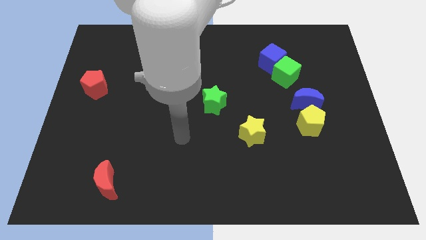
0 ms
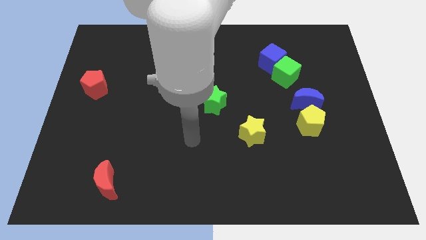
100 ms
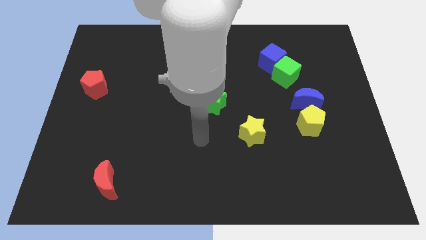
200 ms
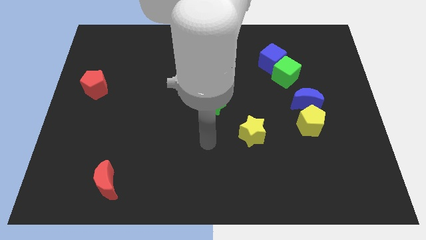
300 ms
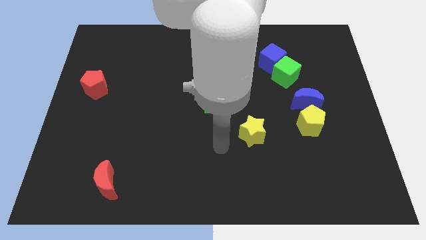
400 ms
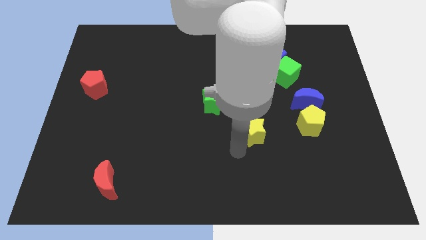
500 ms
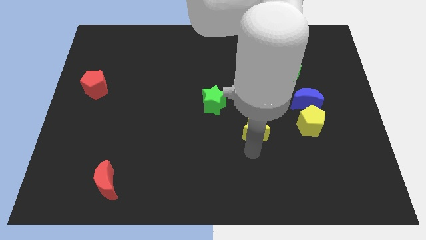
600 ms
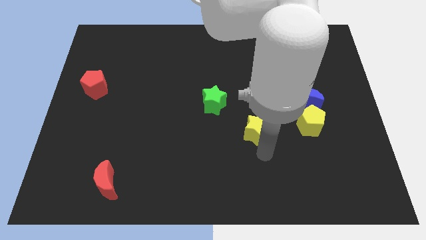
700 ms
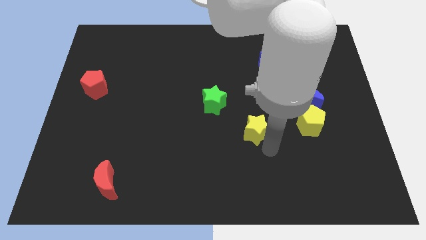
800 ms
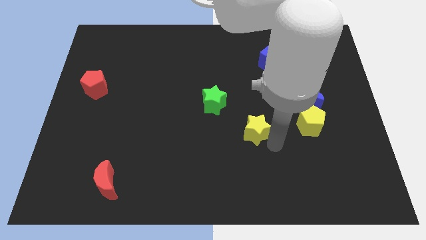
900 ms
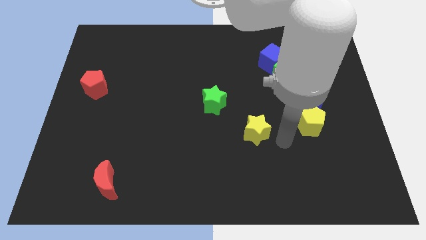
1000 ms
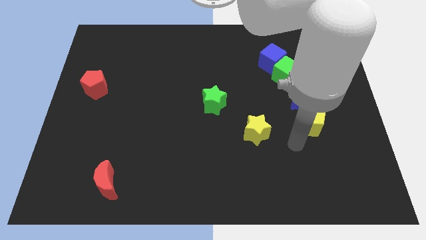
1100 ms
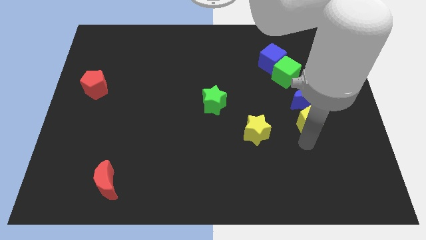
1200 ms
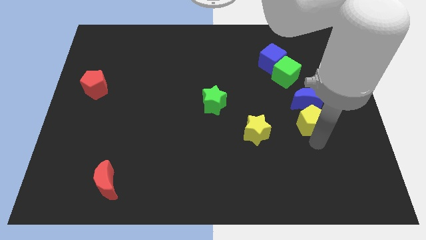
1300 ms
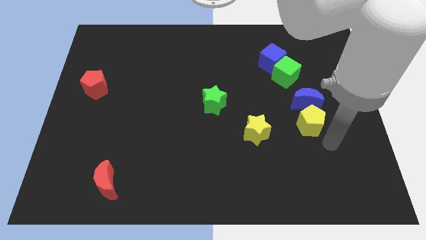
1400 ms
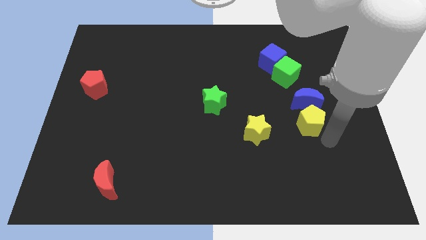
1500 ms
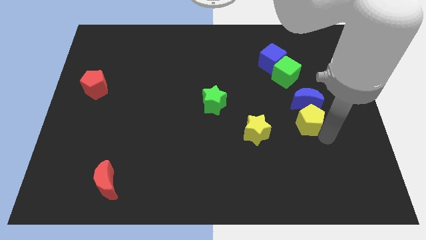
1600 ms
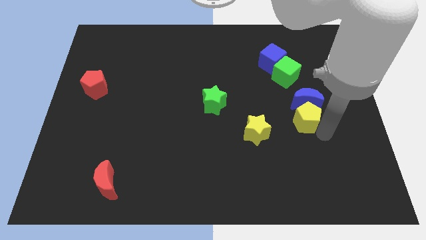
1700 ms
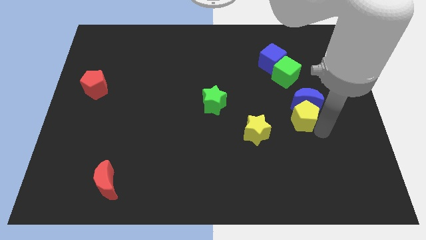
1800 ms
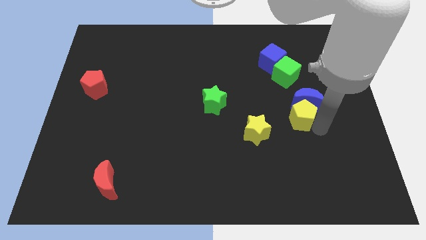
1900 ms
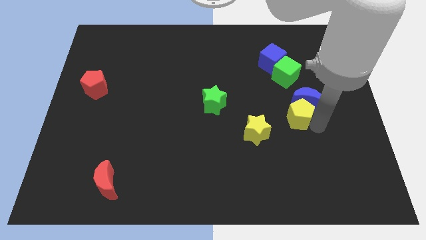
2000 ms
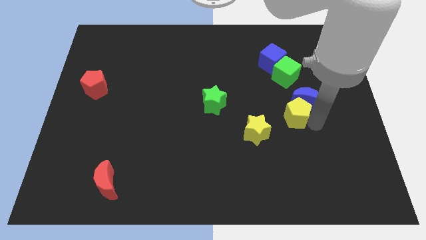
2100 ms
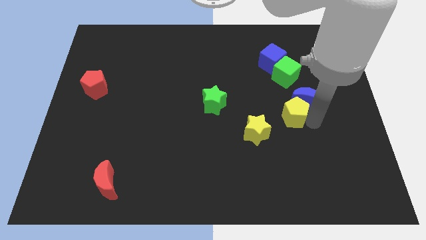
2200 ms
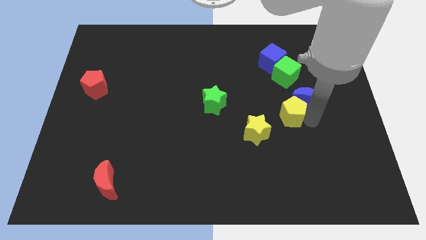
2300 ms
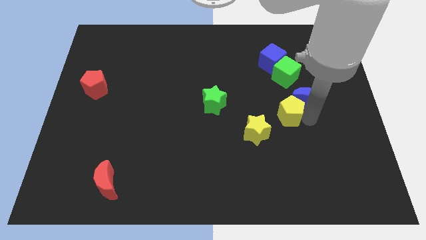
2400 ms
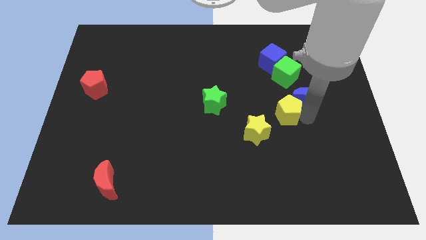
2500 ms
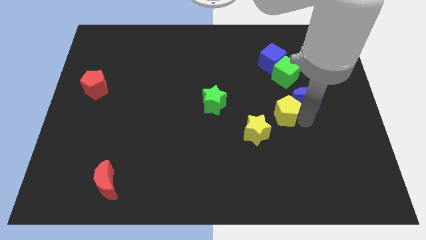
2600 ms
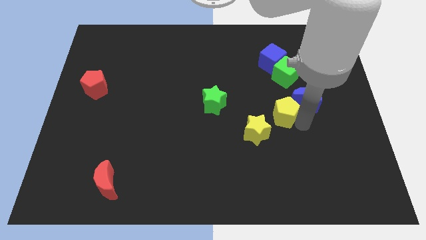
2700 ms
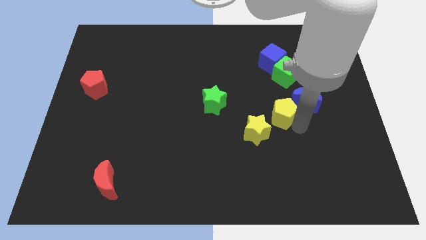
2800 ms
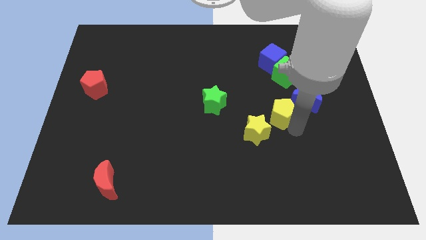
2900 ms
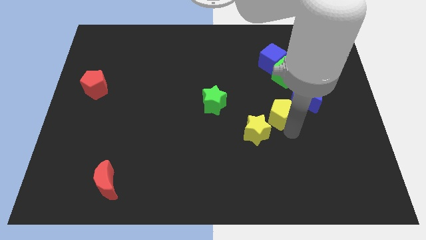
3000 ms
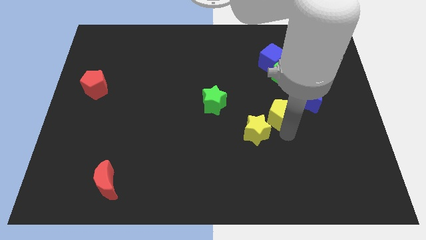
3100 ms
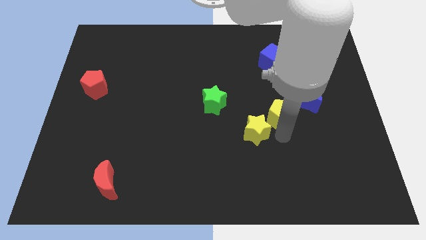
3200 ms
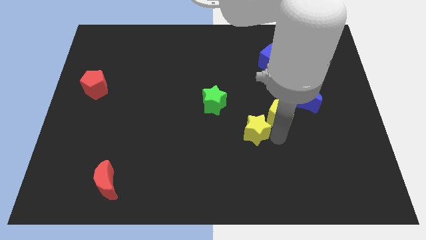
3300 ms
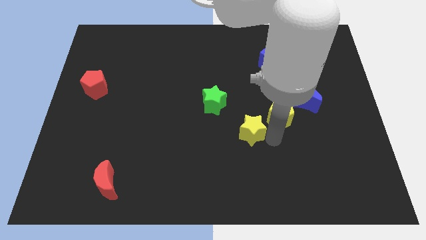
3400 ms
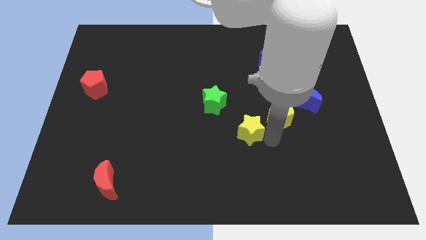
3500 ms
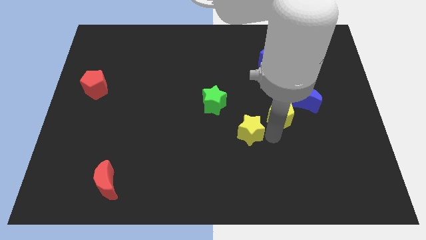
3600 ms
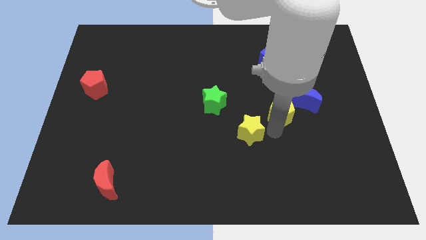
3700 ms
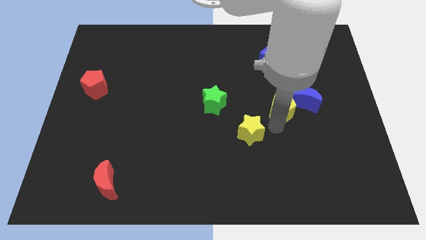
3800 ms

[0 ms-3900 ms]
move the yellow pentagon slightly up and left

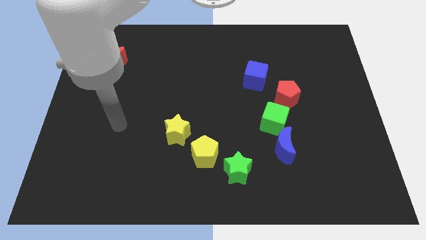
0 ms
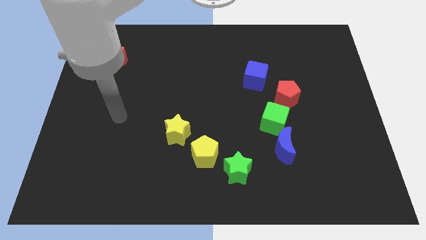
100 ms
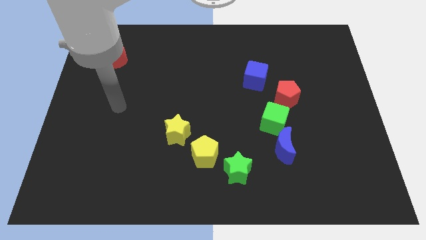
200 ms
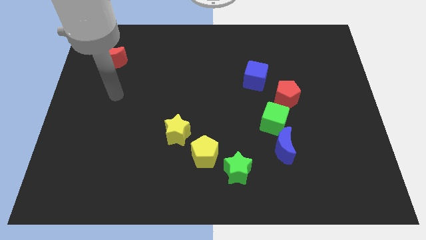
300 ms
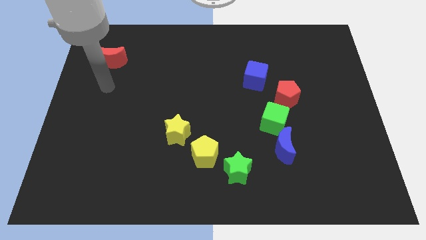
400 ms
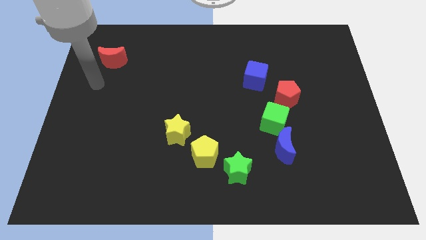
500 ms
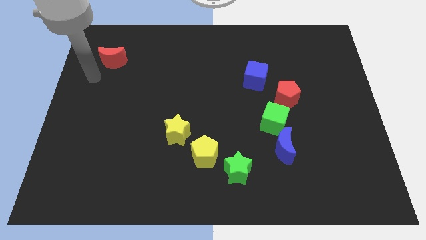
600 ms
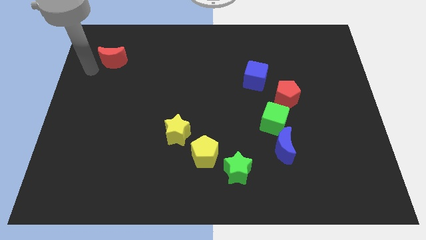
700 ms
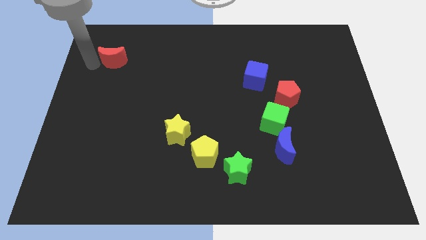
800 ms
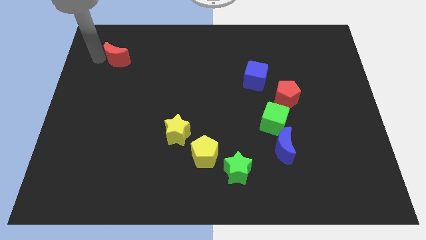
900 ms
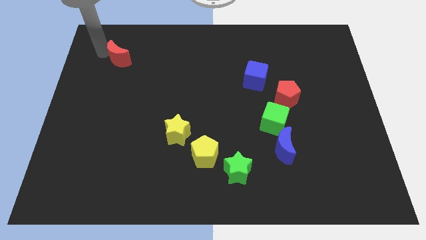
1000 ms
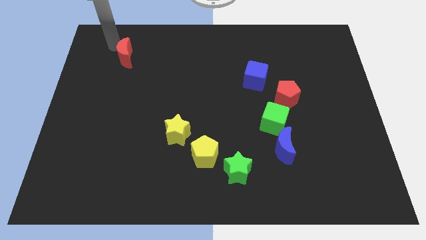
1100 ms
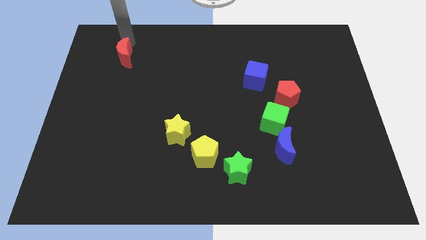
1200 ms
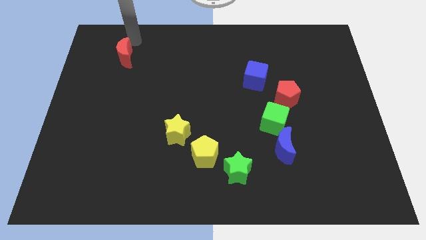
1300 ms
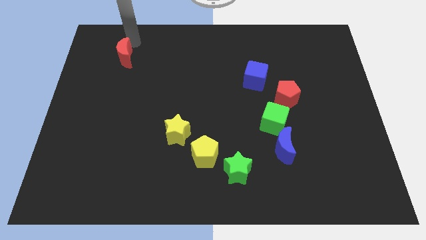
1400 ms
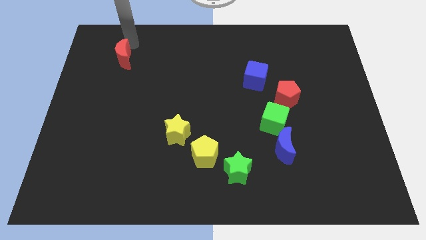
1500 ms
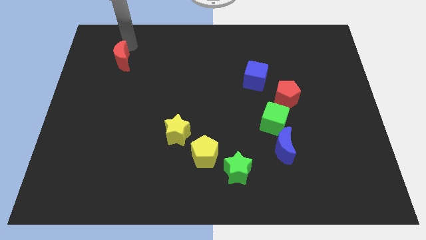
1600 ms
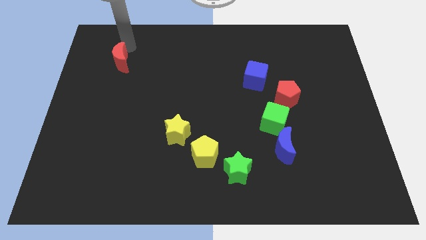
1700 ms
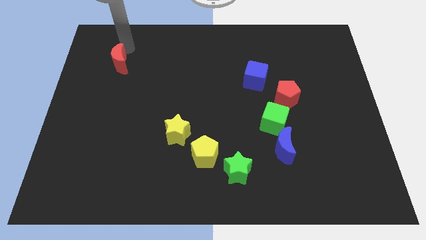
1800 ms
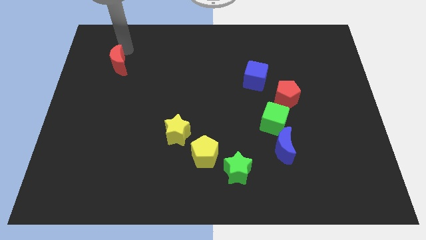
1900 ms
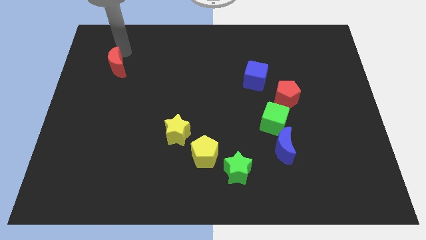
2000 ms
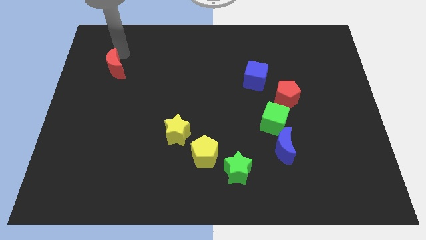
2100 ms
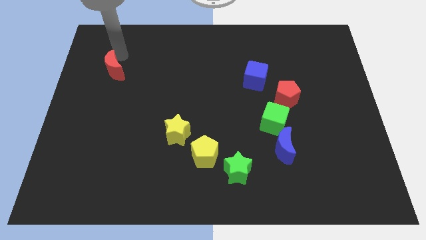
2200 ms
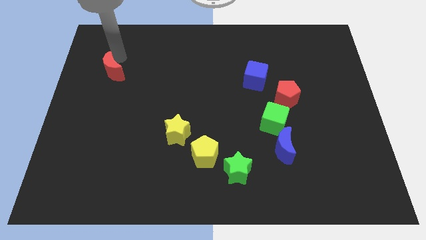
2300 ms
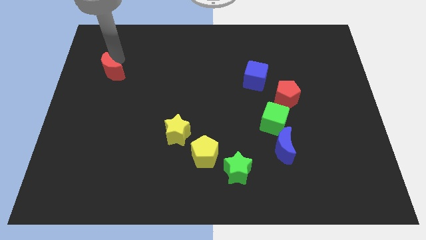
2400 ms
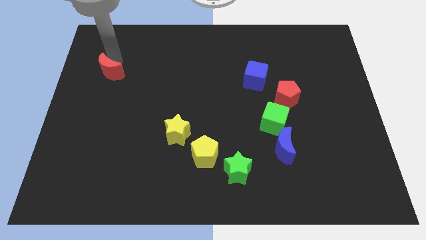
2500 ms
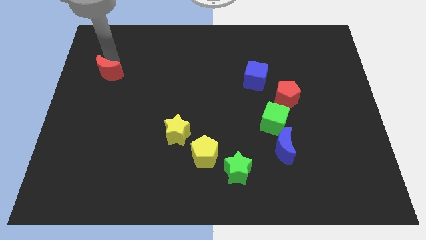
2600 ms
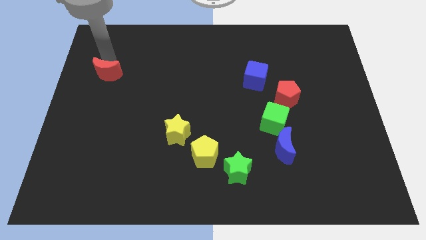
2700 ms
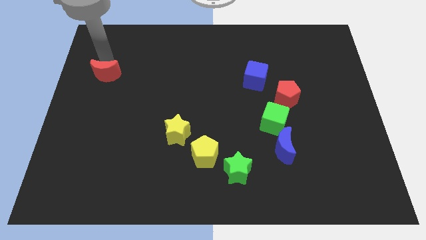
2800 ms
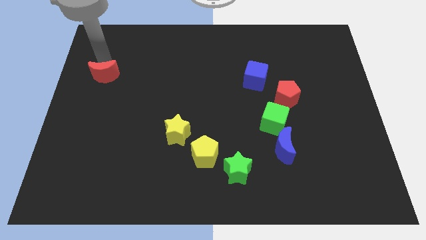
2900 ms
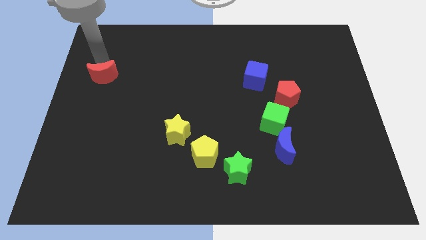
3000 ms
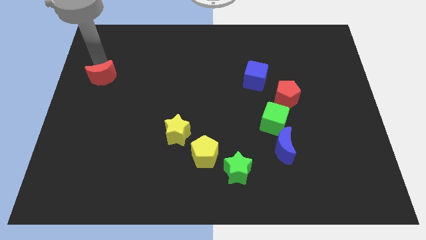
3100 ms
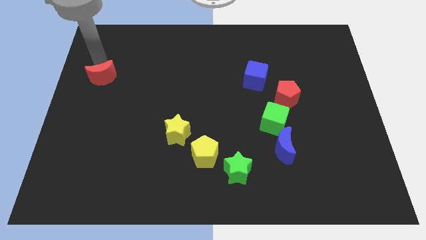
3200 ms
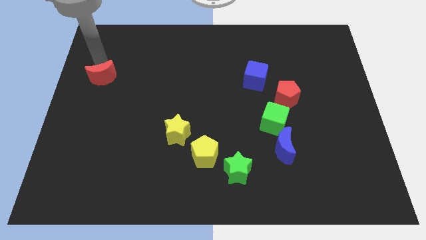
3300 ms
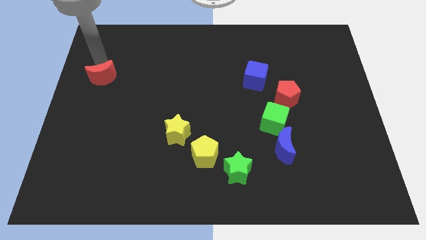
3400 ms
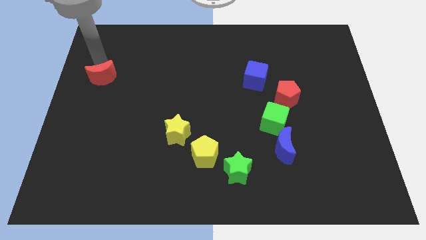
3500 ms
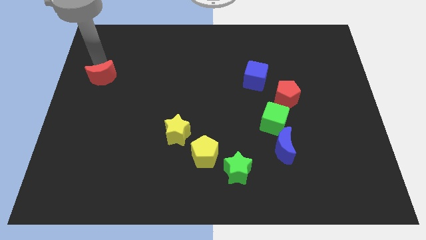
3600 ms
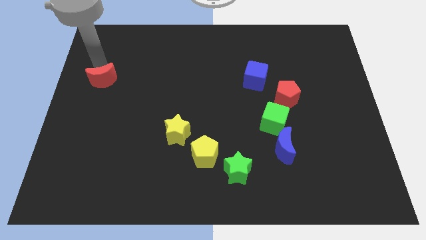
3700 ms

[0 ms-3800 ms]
slightly slide the red moon downwards
